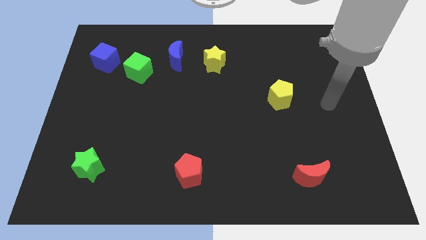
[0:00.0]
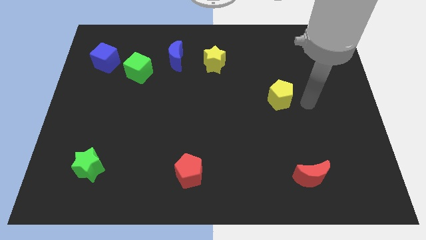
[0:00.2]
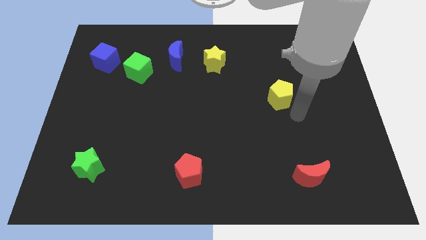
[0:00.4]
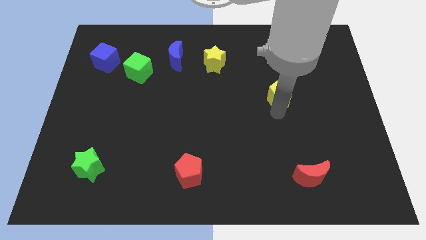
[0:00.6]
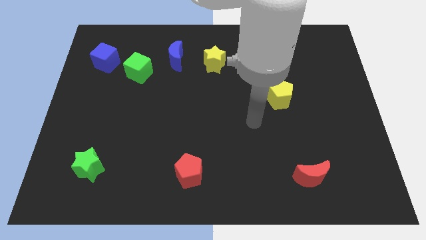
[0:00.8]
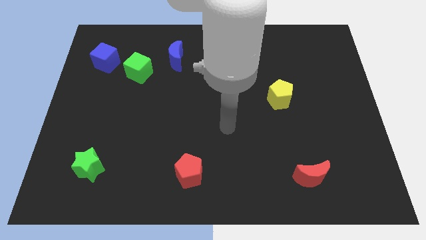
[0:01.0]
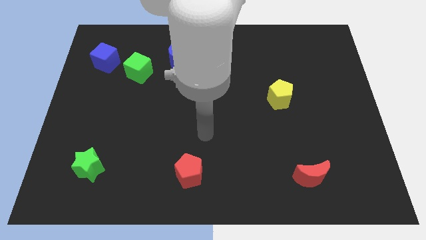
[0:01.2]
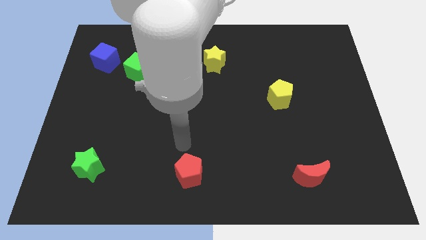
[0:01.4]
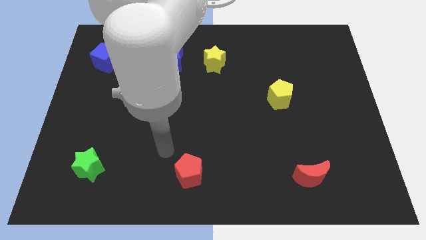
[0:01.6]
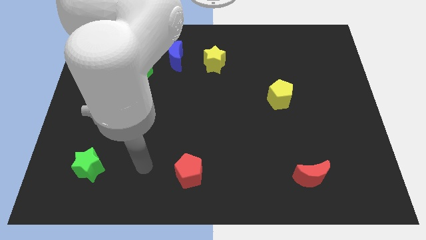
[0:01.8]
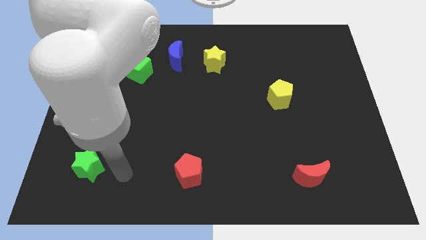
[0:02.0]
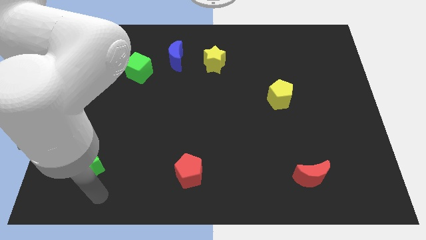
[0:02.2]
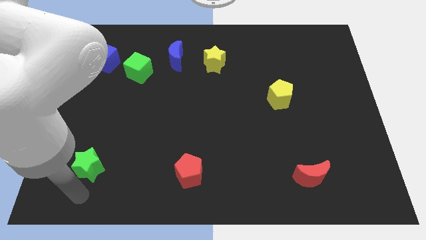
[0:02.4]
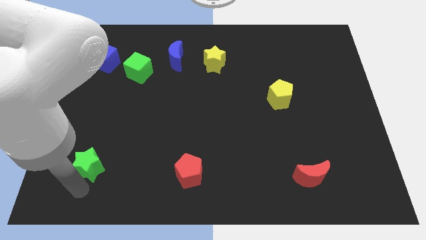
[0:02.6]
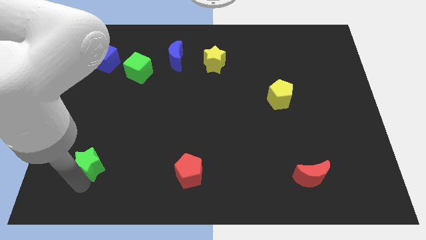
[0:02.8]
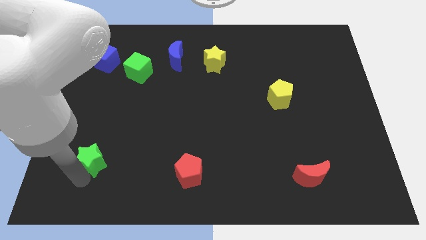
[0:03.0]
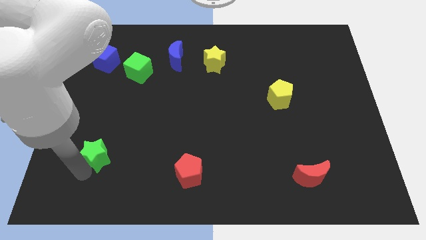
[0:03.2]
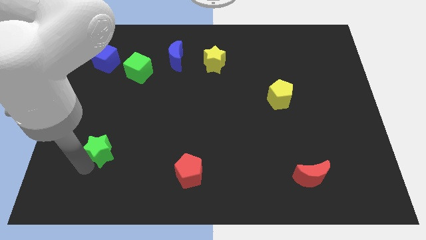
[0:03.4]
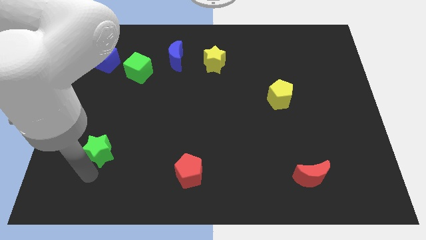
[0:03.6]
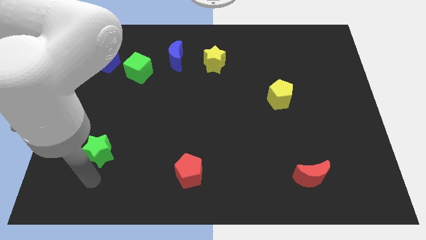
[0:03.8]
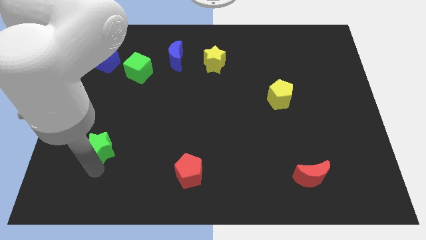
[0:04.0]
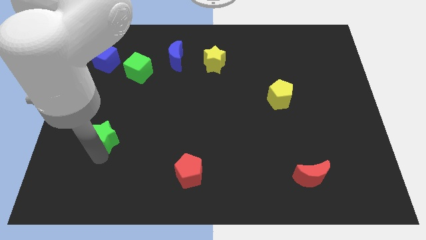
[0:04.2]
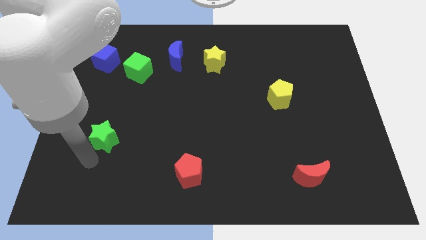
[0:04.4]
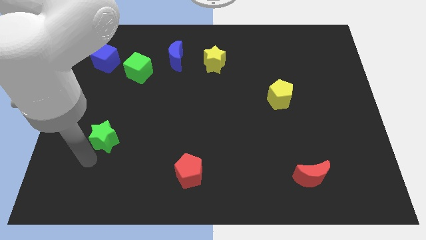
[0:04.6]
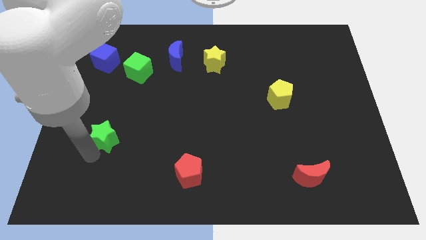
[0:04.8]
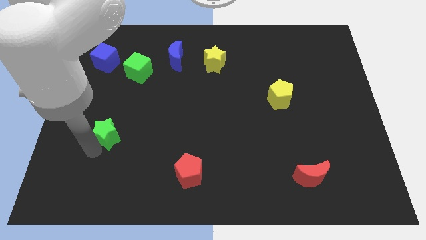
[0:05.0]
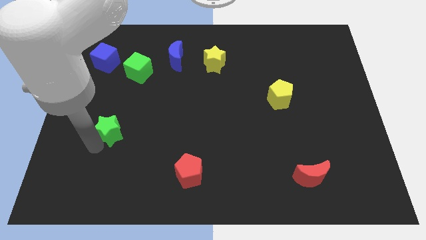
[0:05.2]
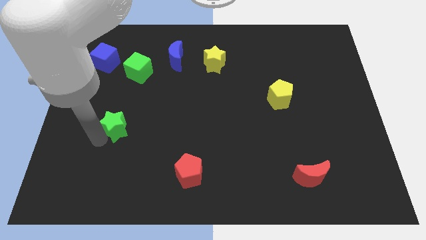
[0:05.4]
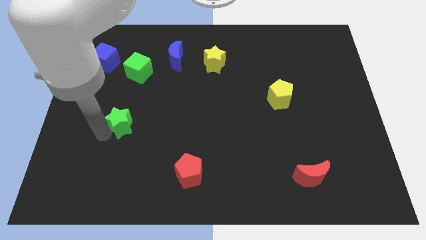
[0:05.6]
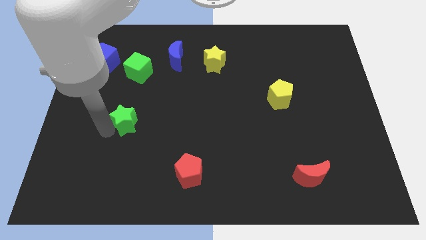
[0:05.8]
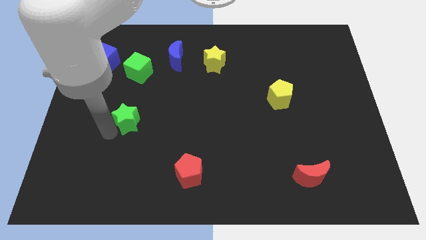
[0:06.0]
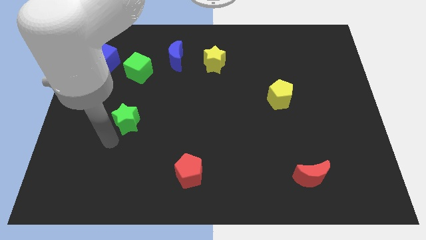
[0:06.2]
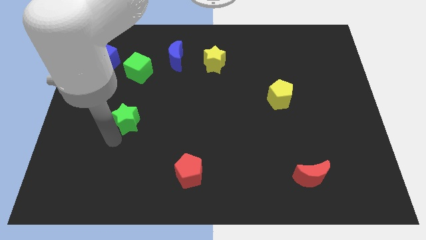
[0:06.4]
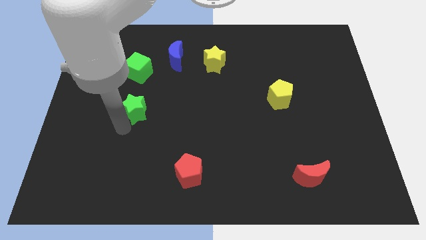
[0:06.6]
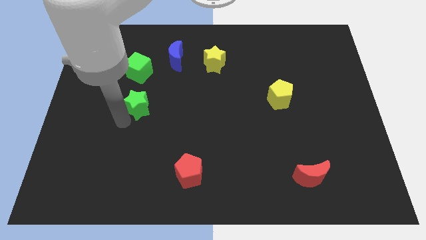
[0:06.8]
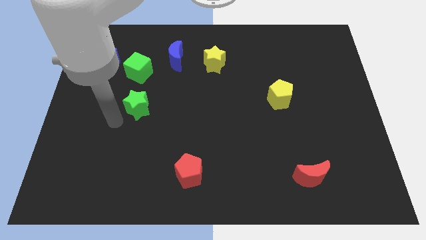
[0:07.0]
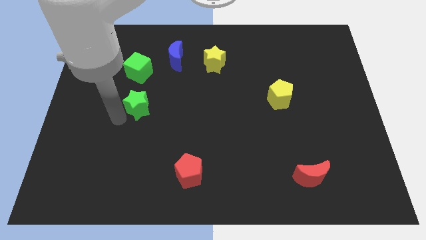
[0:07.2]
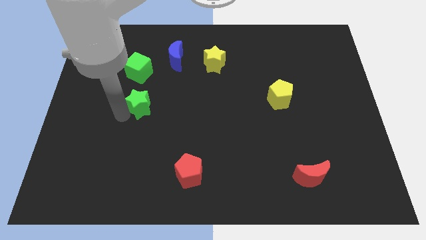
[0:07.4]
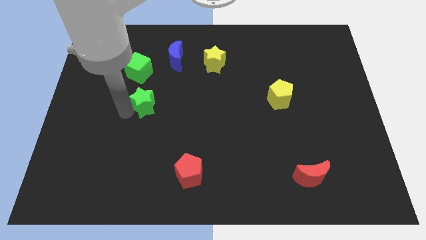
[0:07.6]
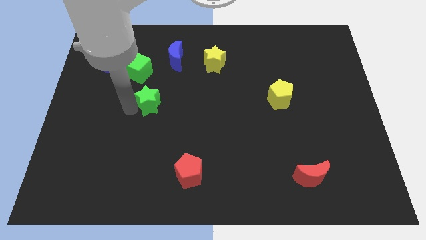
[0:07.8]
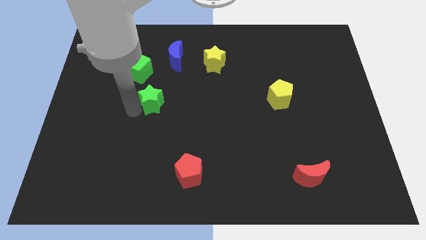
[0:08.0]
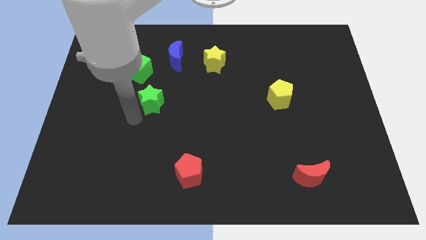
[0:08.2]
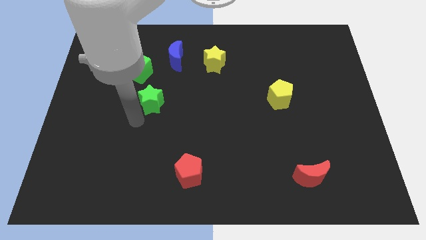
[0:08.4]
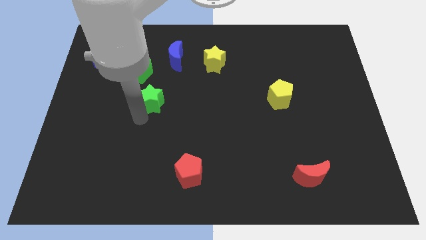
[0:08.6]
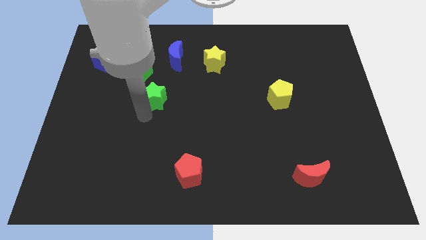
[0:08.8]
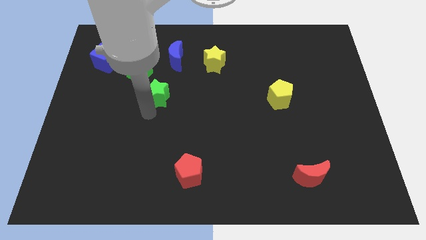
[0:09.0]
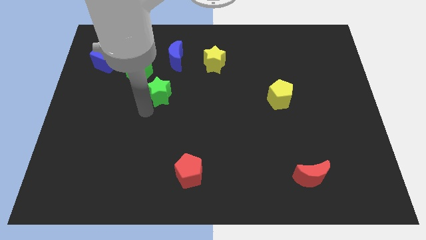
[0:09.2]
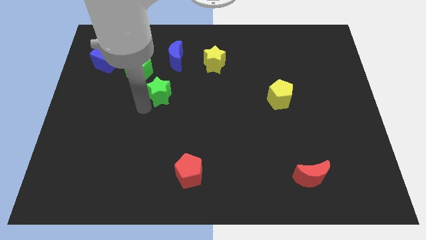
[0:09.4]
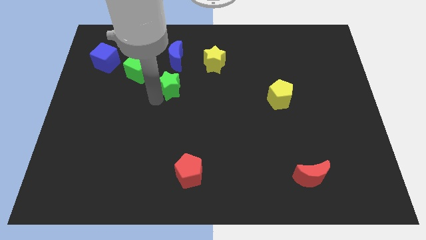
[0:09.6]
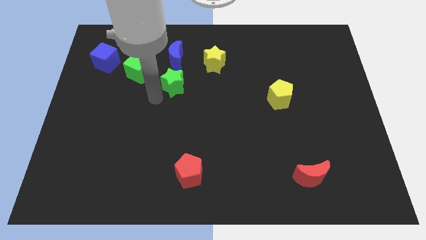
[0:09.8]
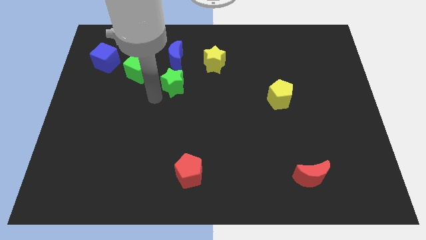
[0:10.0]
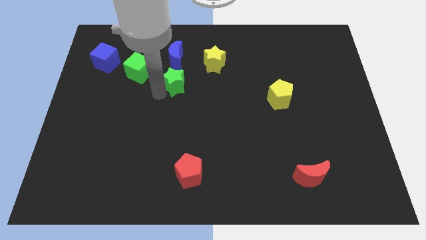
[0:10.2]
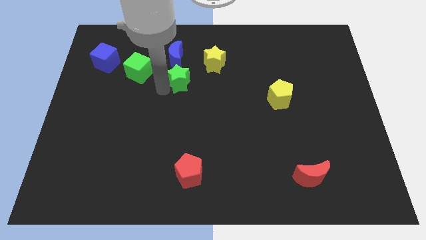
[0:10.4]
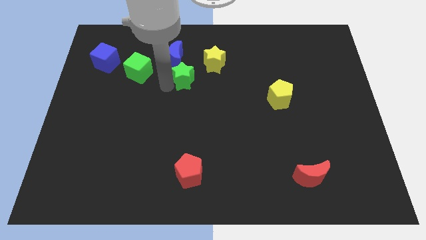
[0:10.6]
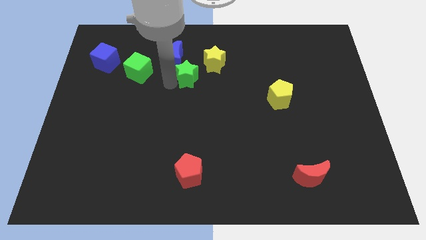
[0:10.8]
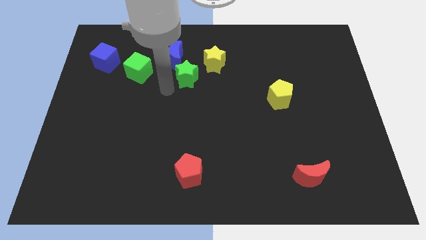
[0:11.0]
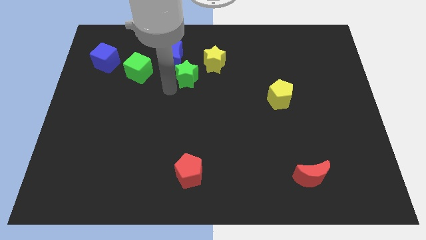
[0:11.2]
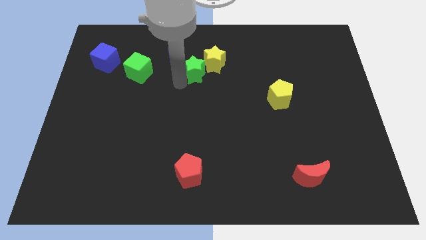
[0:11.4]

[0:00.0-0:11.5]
push the green star close to the yellow star

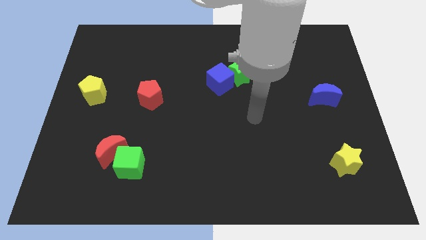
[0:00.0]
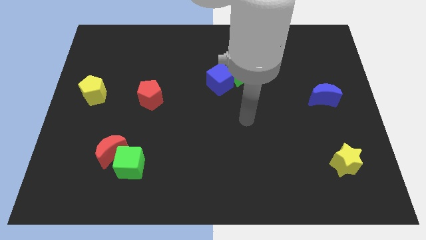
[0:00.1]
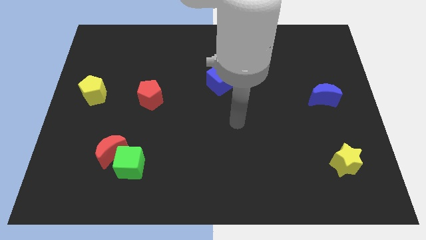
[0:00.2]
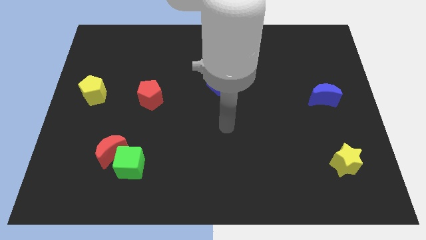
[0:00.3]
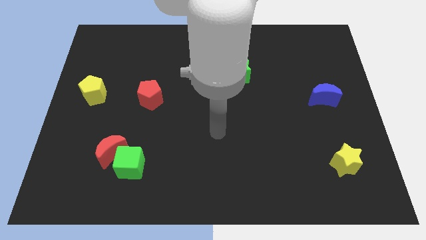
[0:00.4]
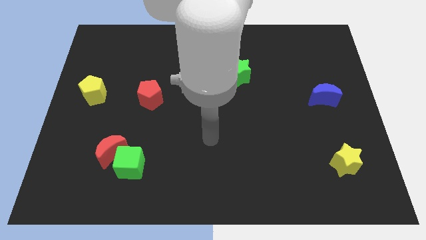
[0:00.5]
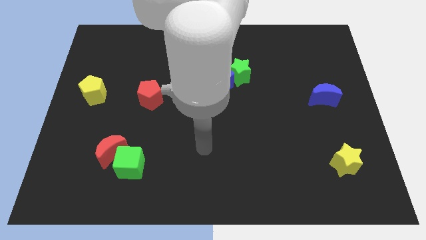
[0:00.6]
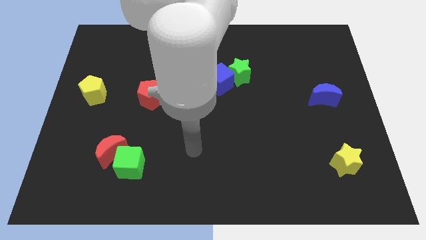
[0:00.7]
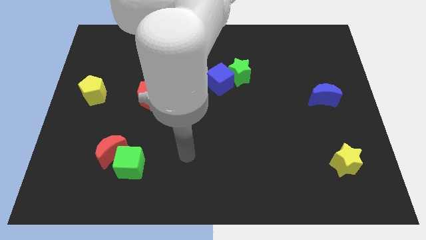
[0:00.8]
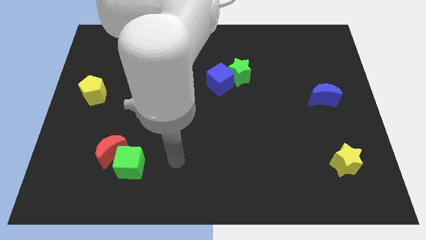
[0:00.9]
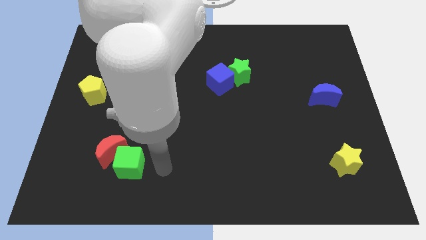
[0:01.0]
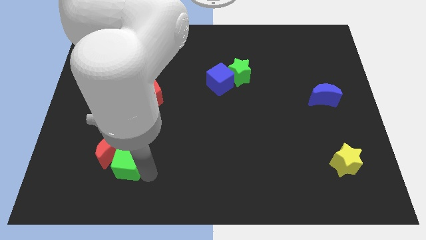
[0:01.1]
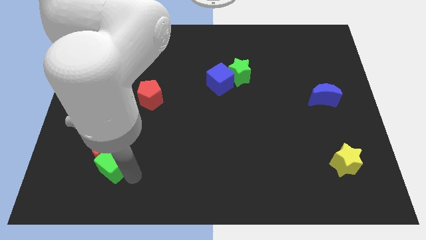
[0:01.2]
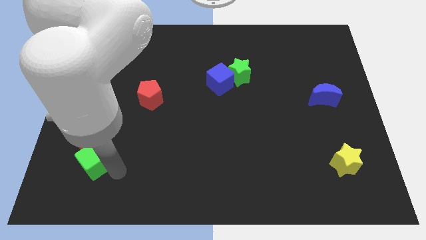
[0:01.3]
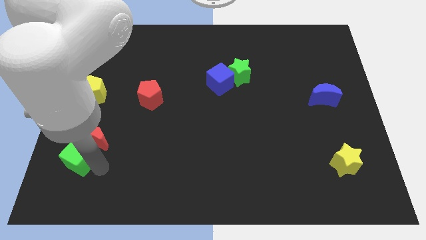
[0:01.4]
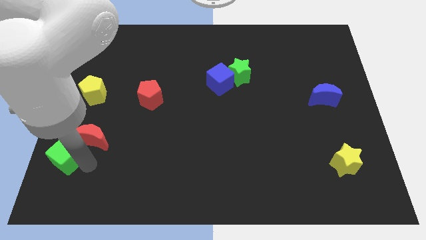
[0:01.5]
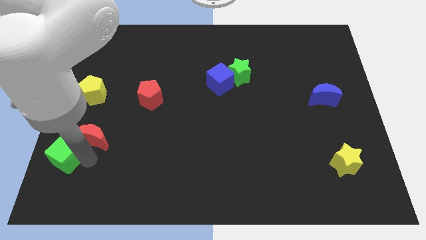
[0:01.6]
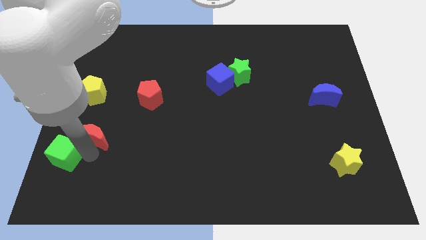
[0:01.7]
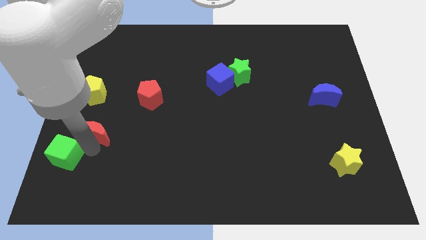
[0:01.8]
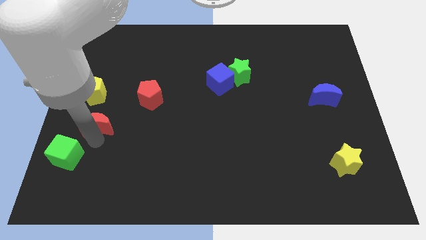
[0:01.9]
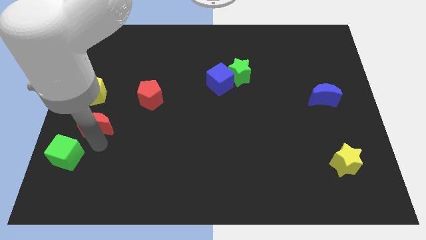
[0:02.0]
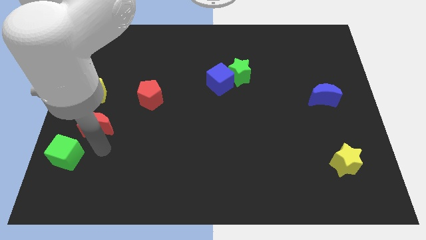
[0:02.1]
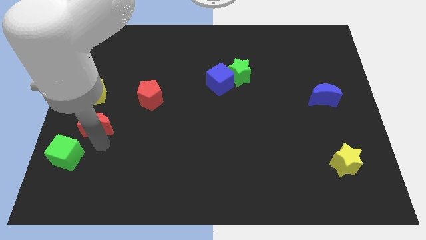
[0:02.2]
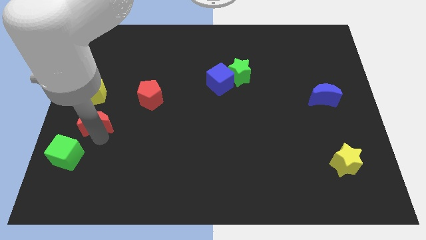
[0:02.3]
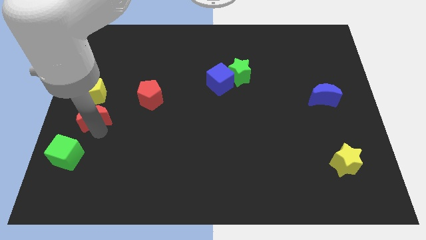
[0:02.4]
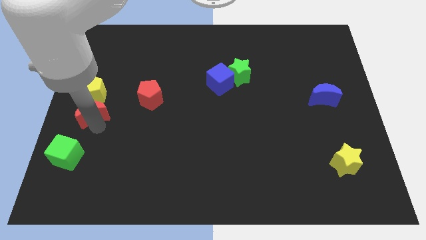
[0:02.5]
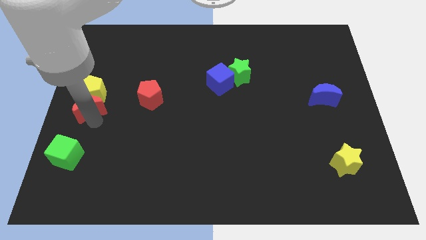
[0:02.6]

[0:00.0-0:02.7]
move the red moon next to the yellow pentagon
